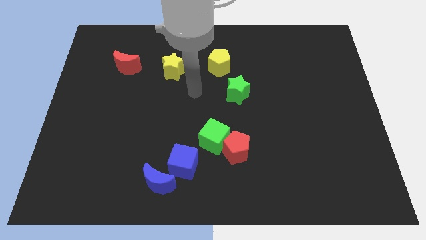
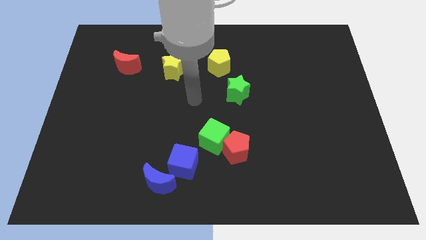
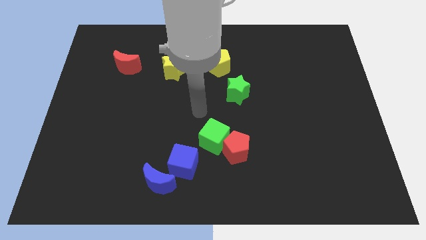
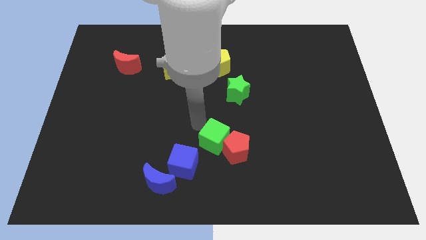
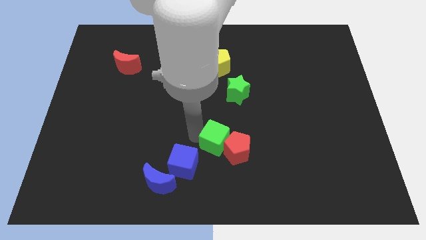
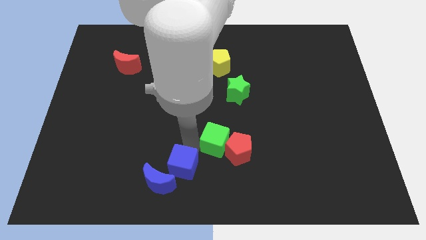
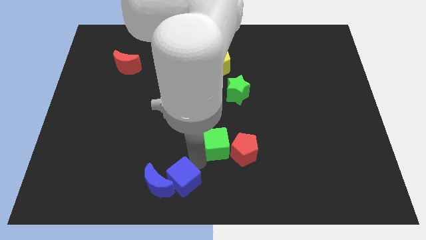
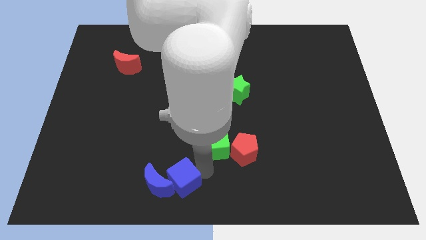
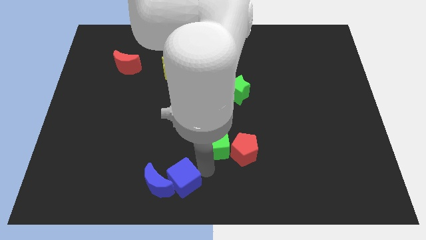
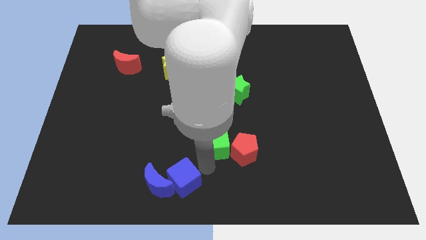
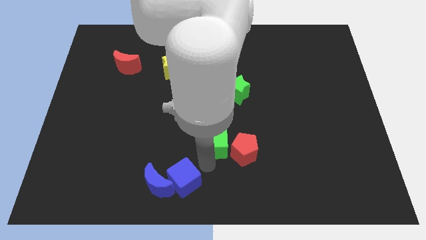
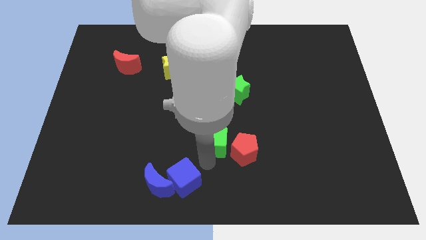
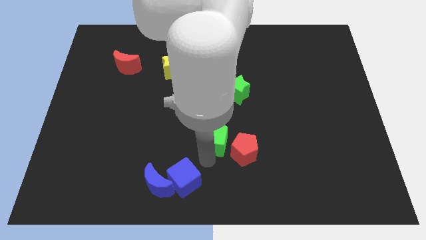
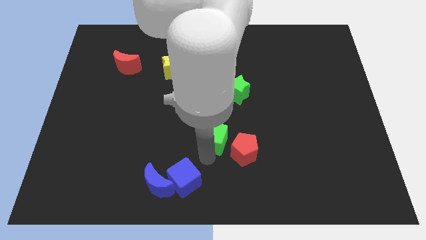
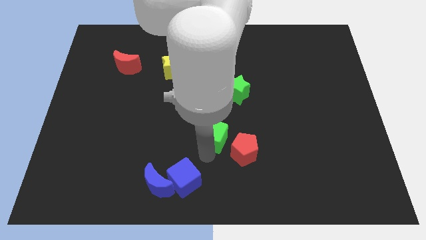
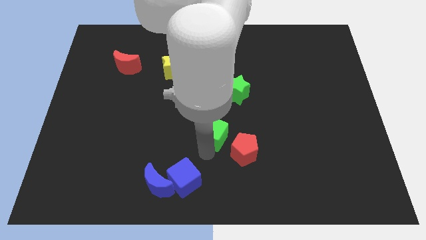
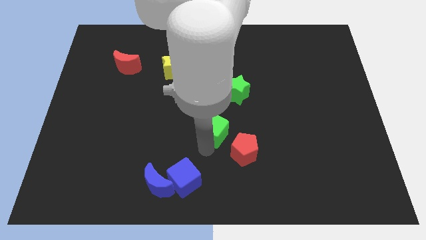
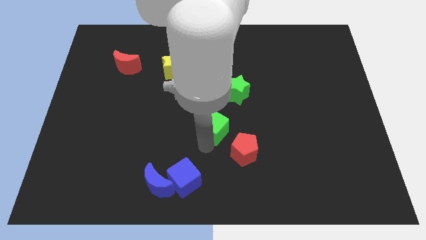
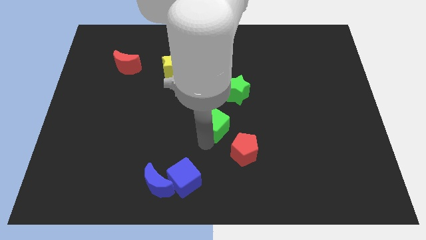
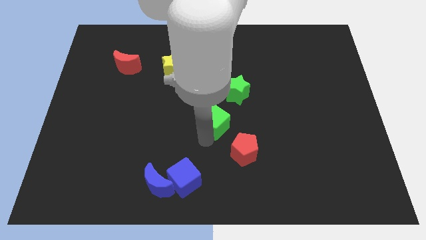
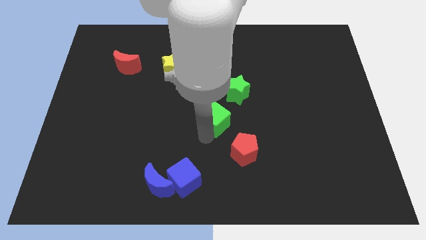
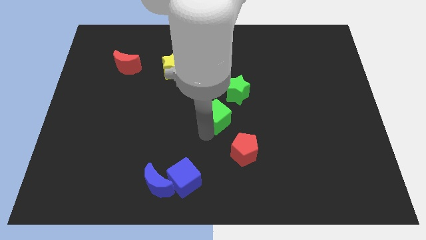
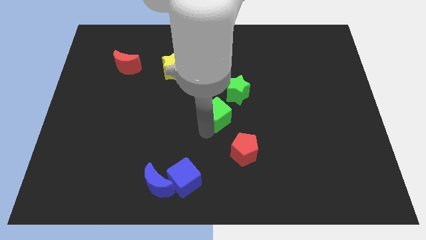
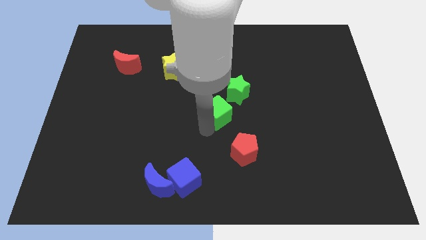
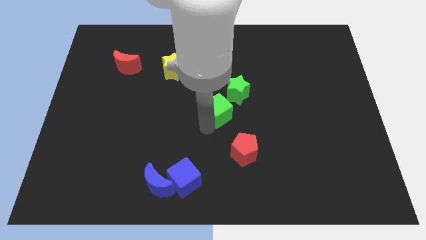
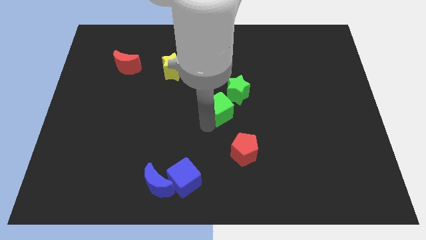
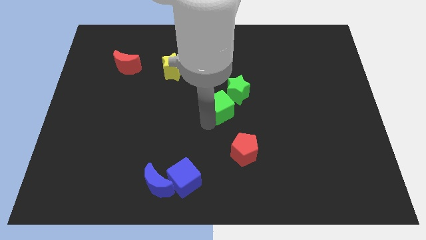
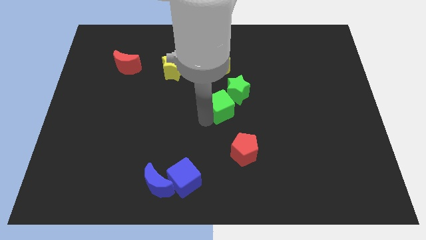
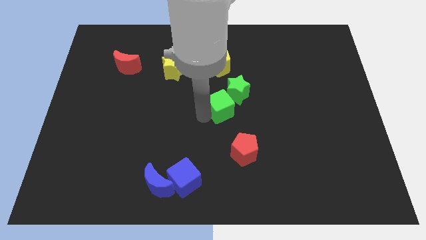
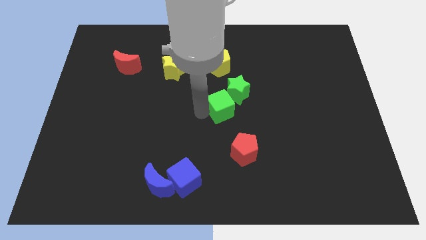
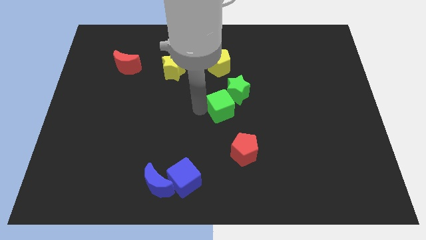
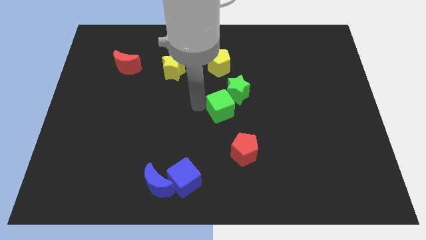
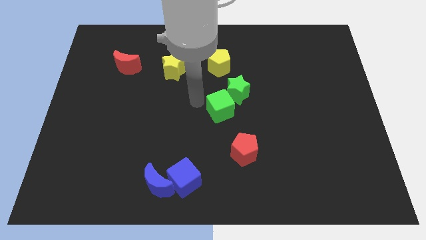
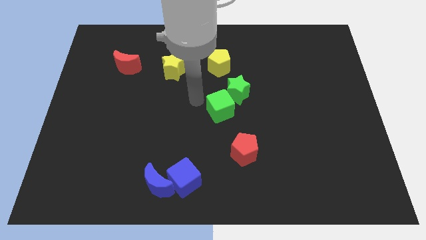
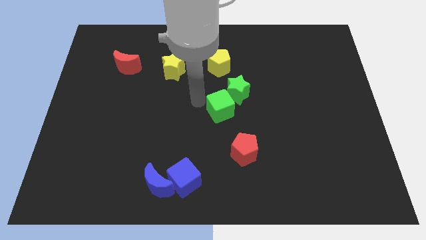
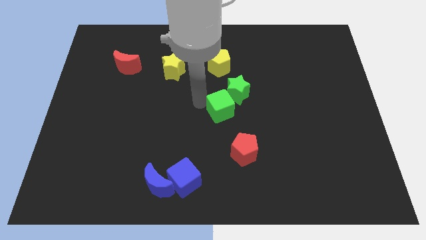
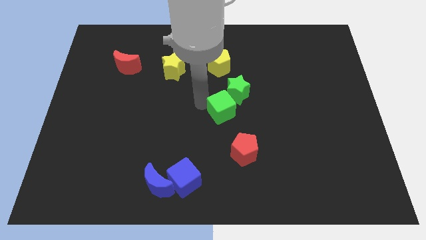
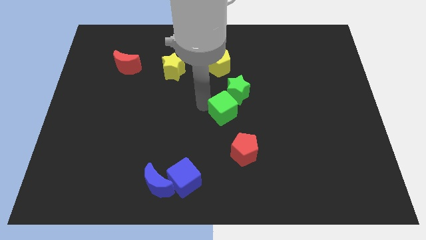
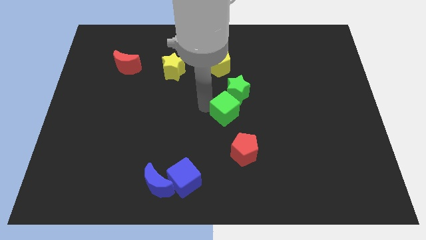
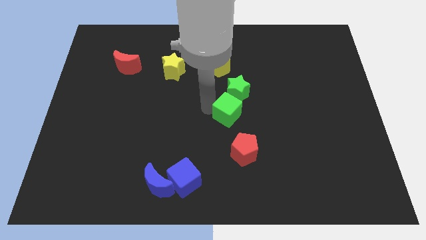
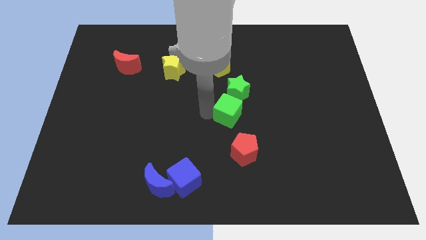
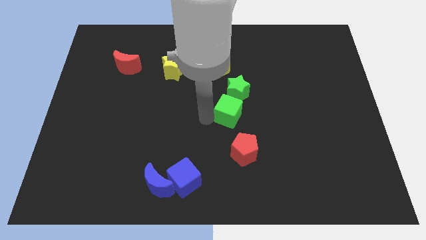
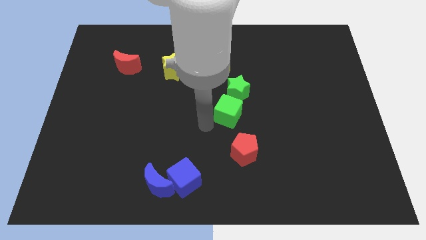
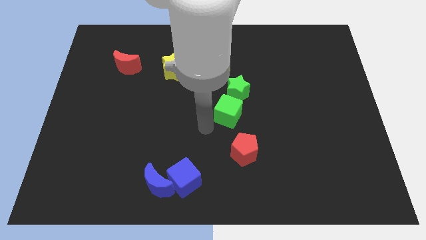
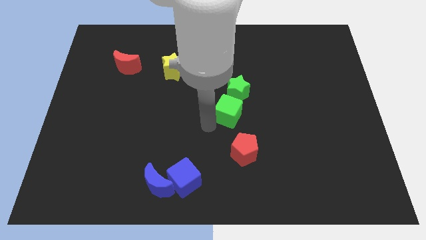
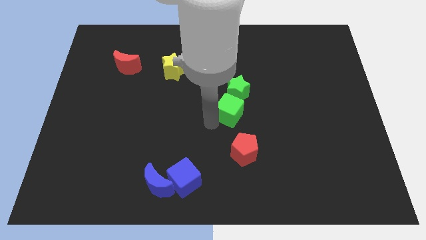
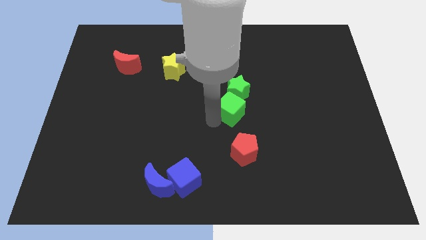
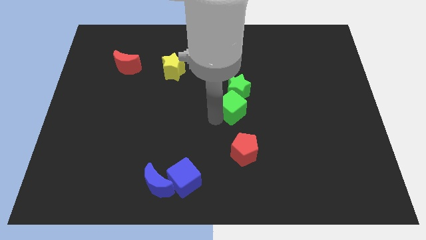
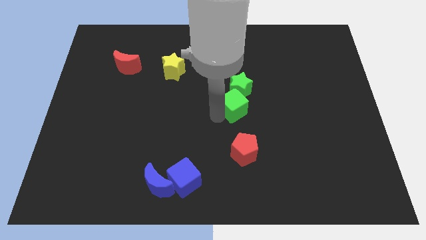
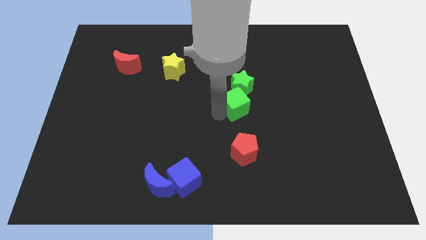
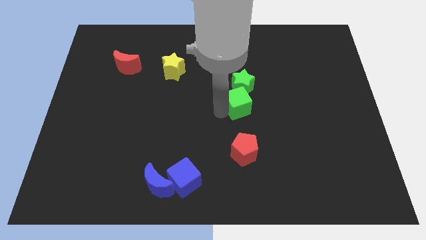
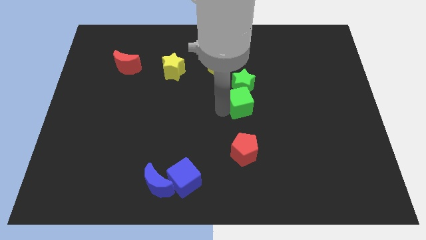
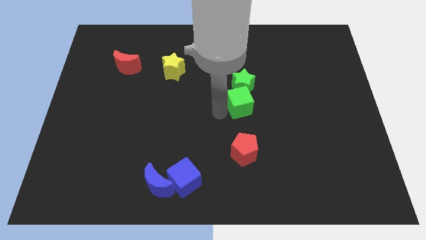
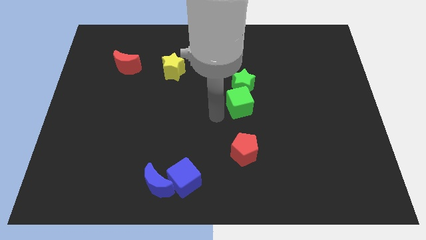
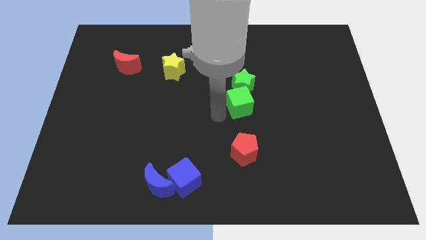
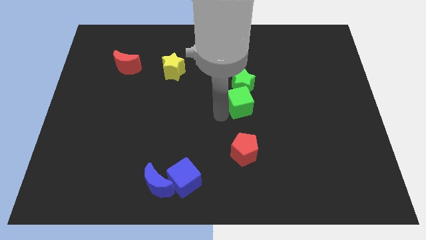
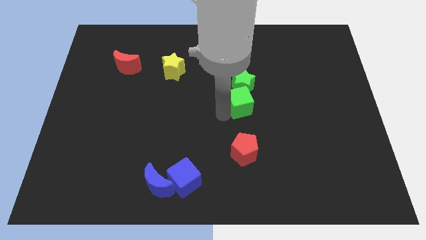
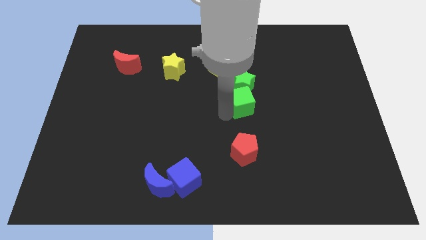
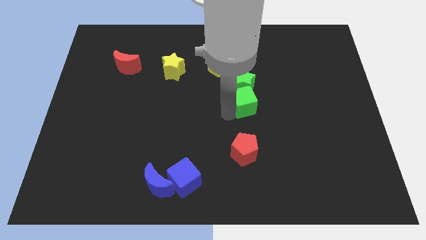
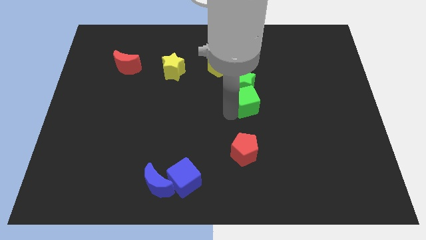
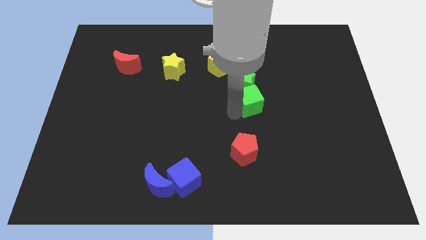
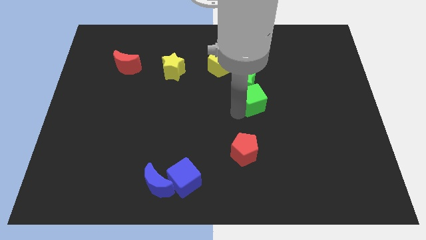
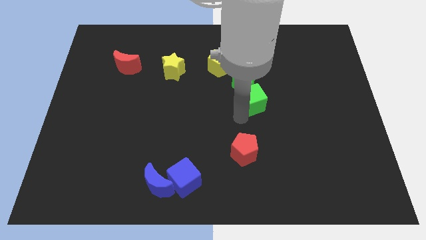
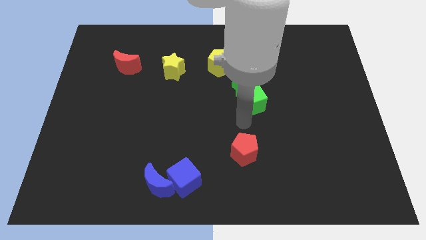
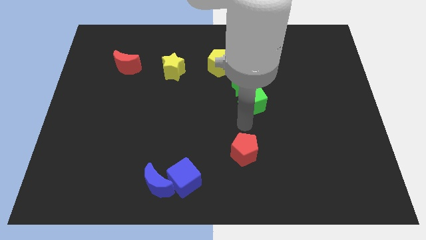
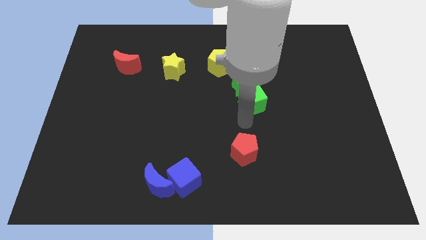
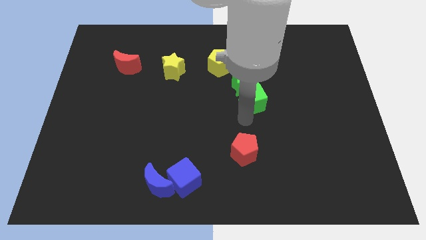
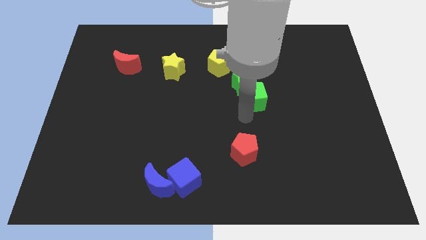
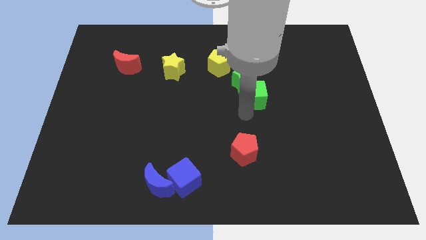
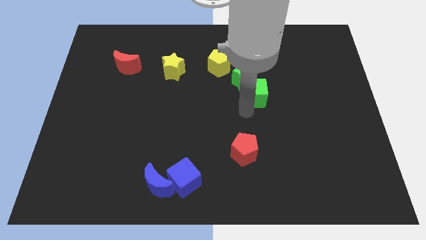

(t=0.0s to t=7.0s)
push the green cube to the bottom right of the yellow pentagon

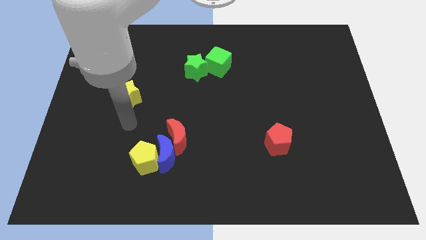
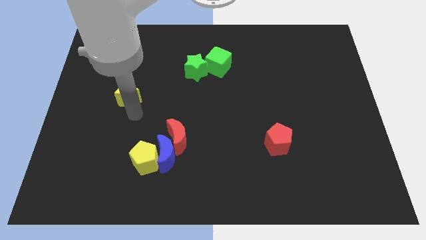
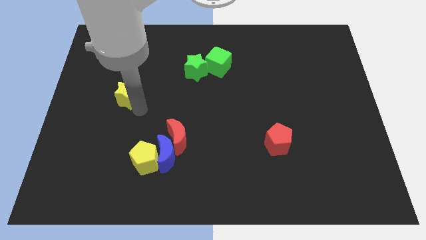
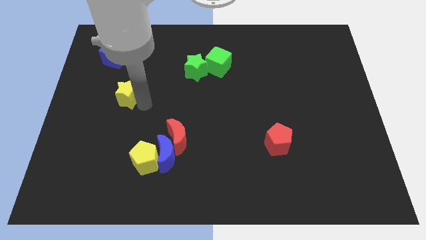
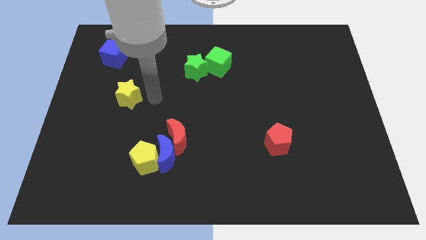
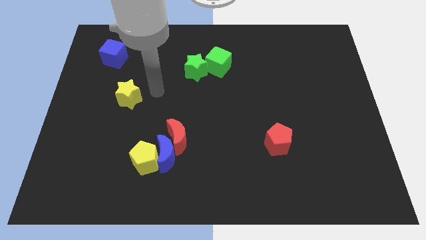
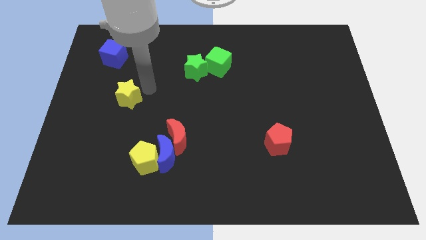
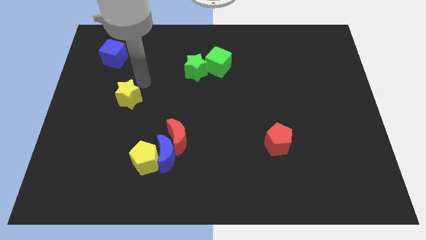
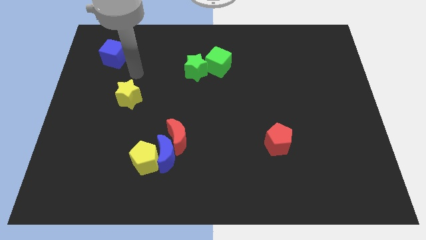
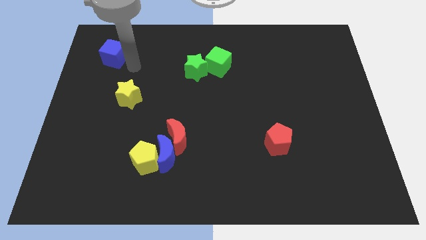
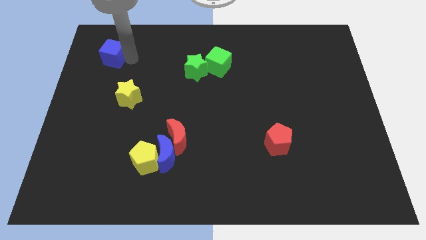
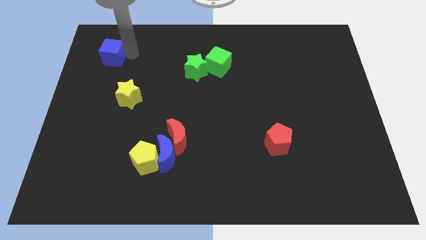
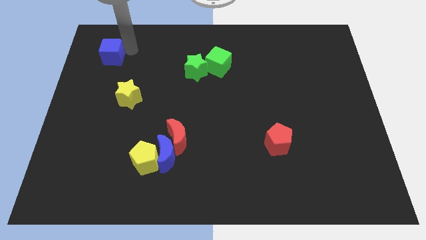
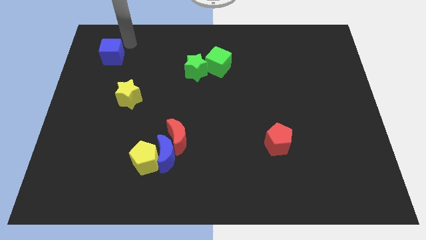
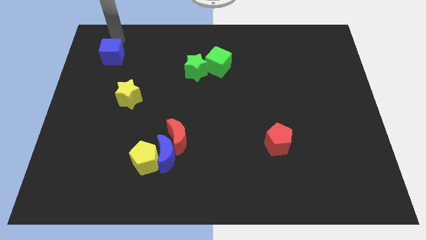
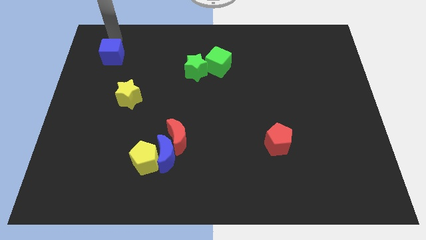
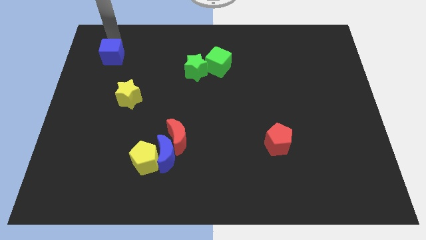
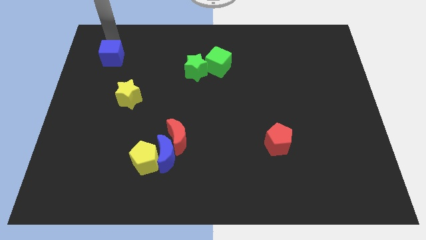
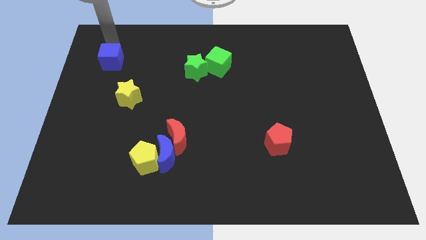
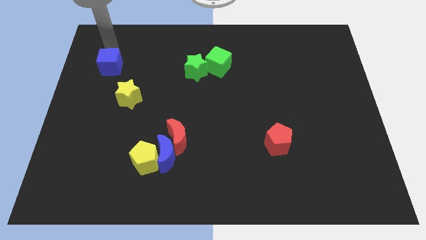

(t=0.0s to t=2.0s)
slide the blue cube diagonally up and to the left of the yellow star
